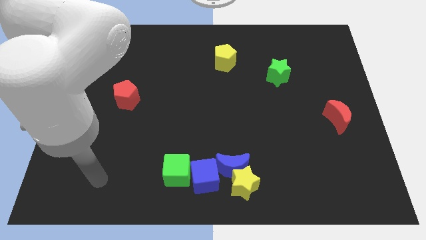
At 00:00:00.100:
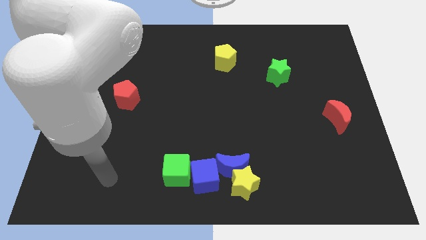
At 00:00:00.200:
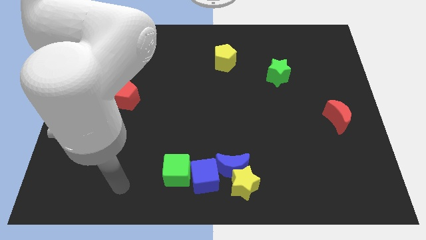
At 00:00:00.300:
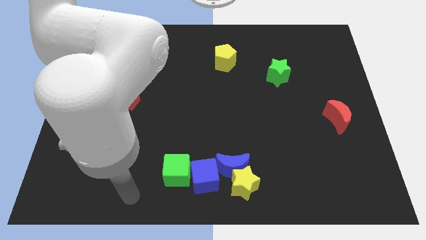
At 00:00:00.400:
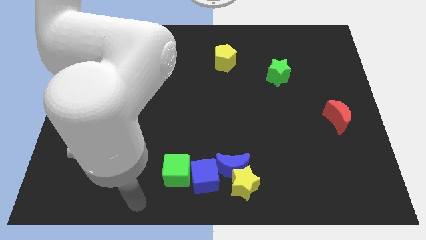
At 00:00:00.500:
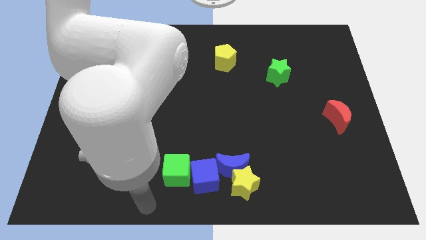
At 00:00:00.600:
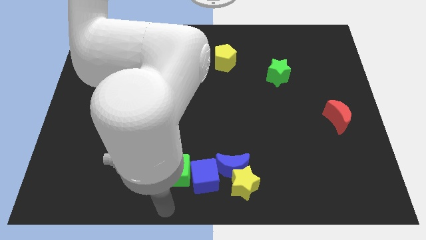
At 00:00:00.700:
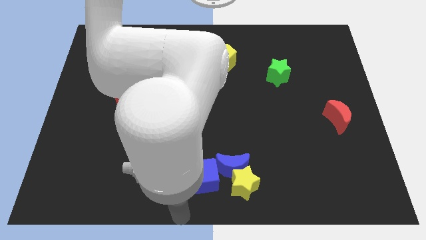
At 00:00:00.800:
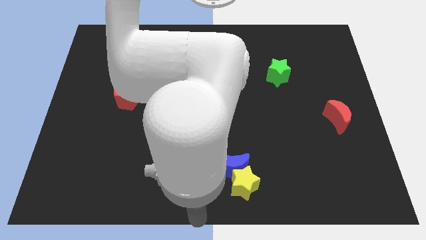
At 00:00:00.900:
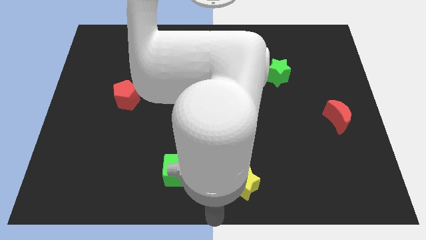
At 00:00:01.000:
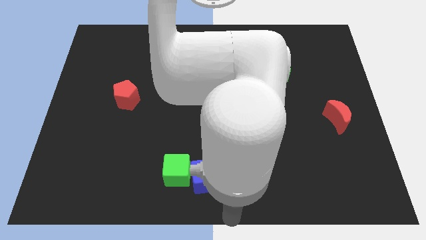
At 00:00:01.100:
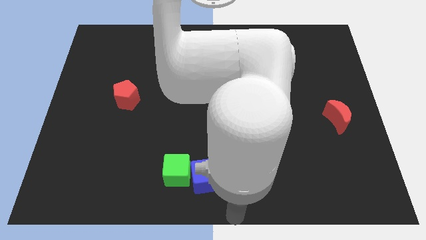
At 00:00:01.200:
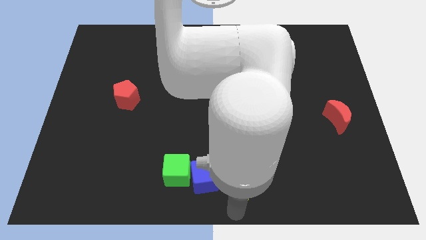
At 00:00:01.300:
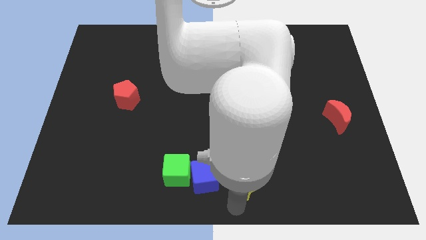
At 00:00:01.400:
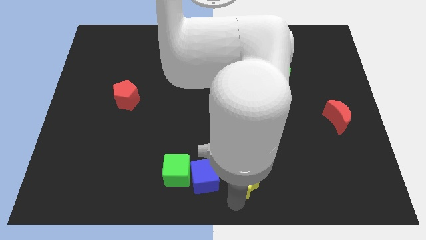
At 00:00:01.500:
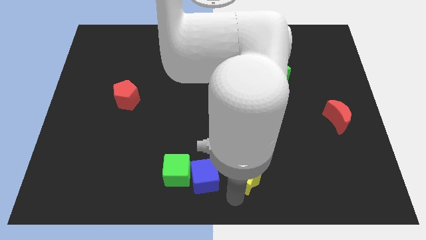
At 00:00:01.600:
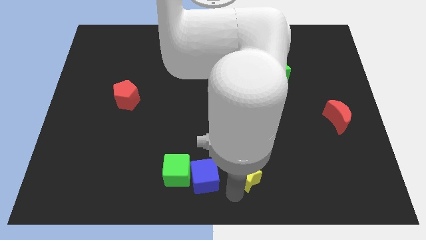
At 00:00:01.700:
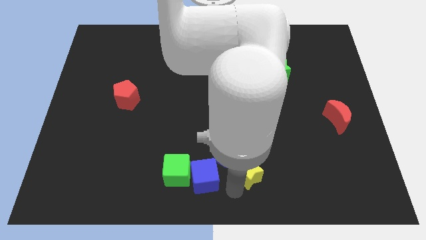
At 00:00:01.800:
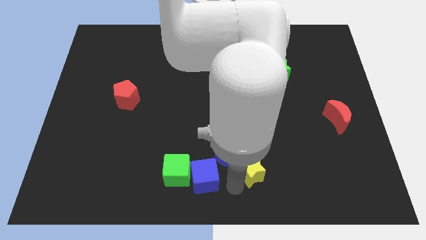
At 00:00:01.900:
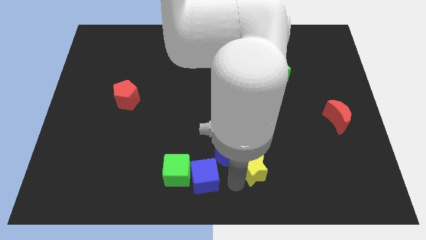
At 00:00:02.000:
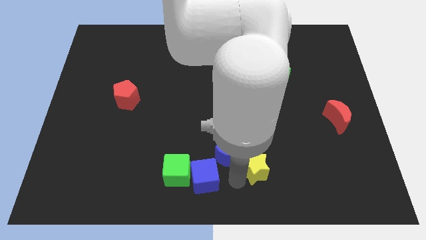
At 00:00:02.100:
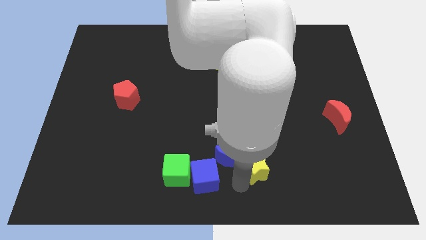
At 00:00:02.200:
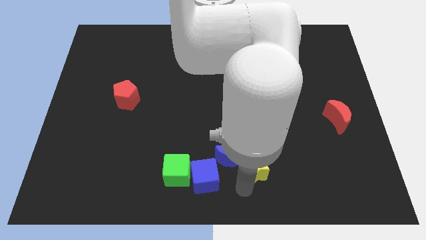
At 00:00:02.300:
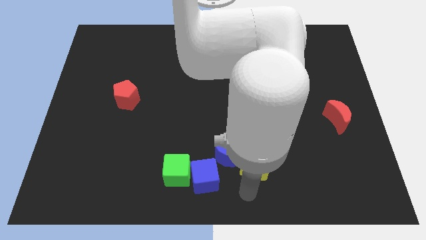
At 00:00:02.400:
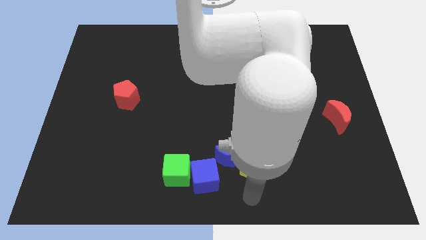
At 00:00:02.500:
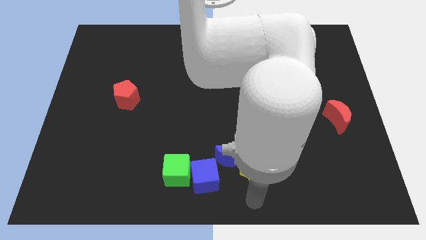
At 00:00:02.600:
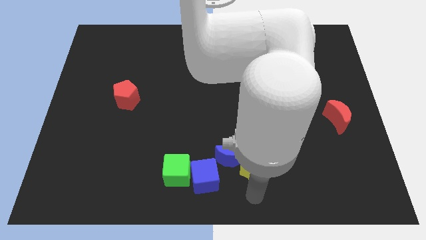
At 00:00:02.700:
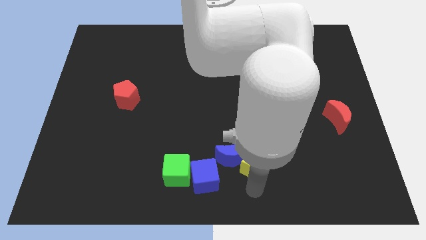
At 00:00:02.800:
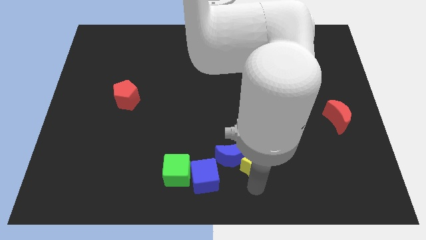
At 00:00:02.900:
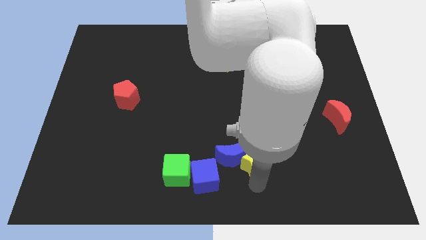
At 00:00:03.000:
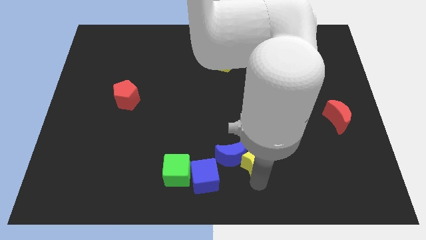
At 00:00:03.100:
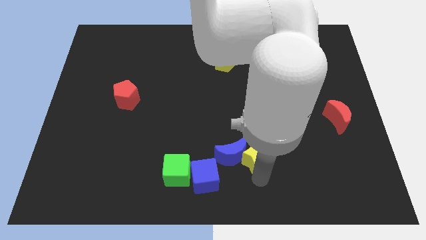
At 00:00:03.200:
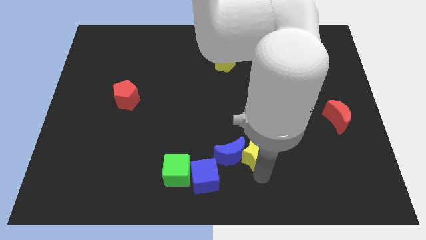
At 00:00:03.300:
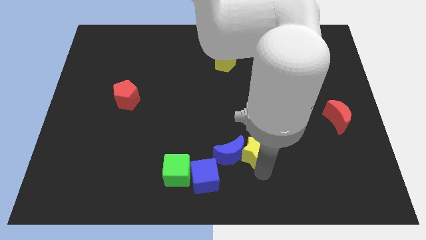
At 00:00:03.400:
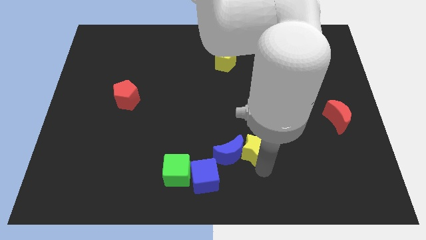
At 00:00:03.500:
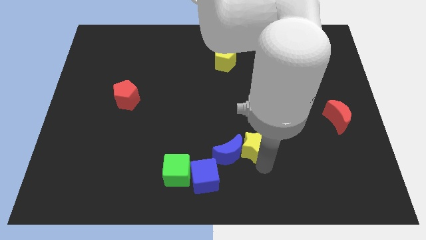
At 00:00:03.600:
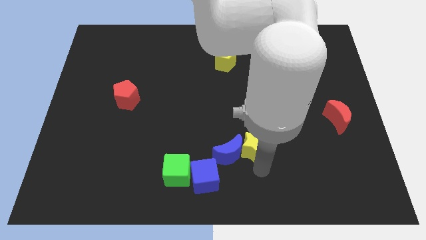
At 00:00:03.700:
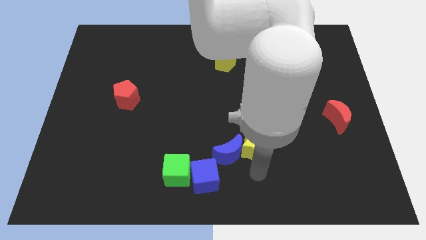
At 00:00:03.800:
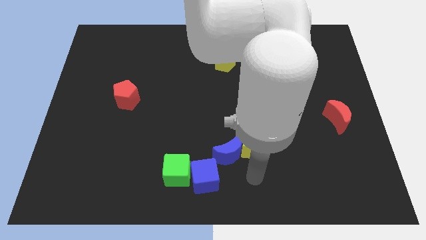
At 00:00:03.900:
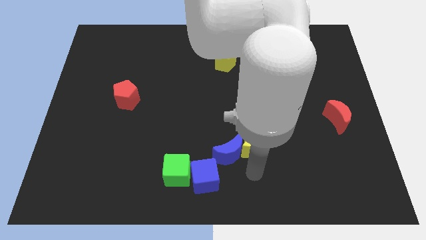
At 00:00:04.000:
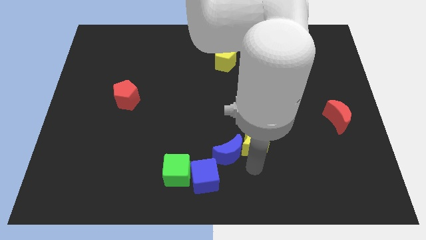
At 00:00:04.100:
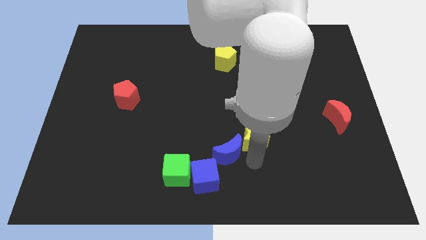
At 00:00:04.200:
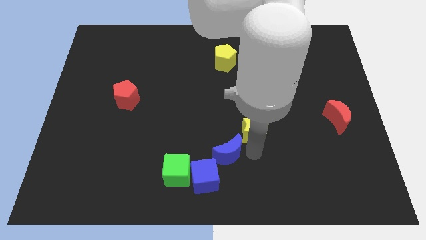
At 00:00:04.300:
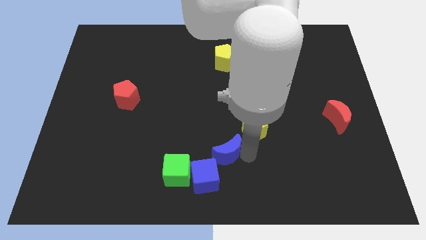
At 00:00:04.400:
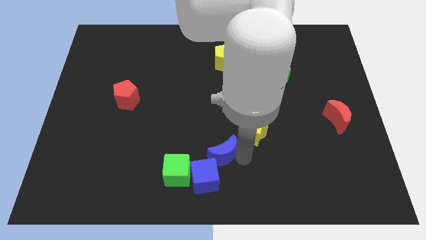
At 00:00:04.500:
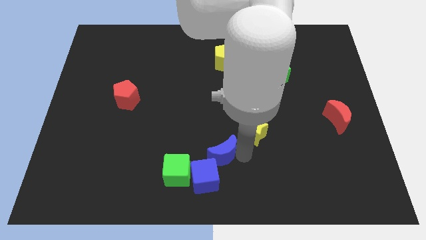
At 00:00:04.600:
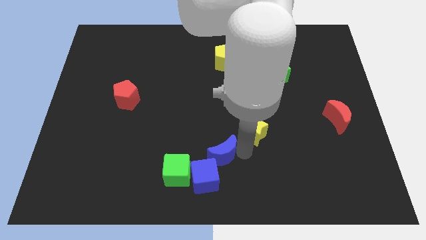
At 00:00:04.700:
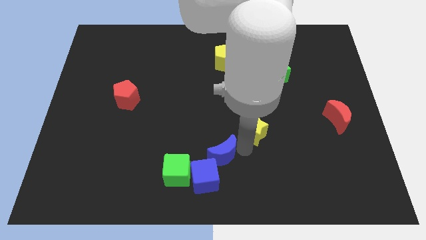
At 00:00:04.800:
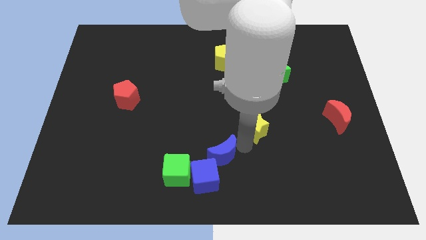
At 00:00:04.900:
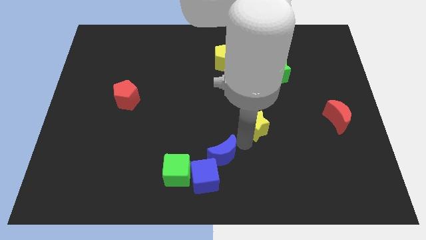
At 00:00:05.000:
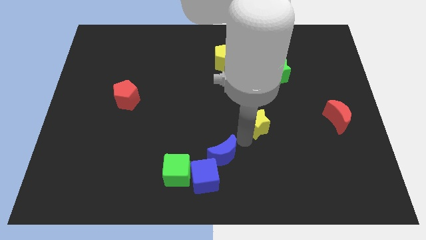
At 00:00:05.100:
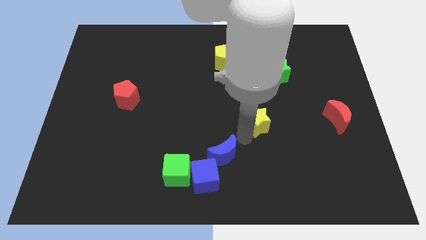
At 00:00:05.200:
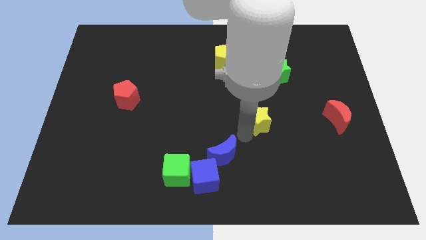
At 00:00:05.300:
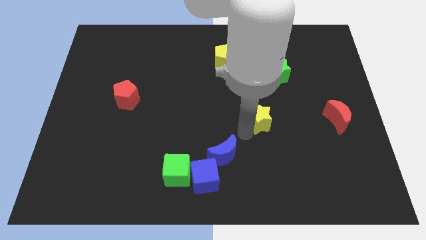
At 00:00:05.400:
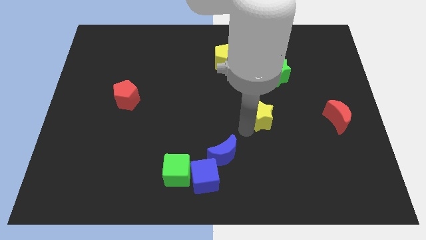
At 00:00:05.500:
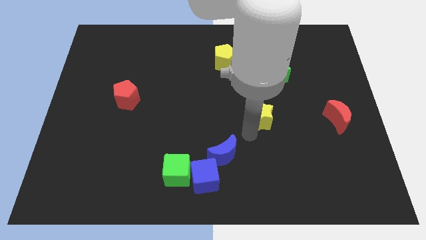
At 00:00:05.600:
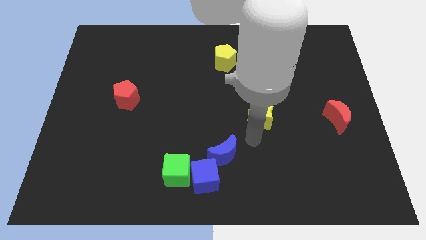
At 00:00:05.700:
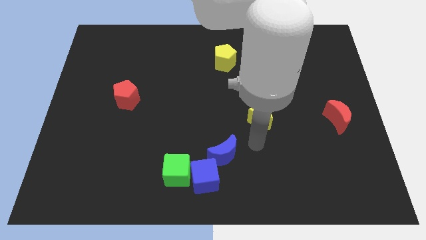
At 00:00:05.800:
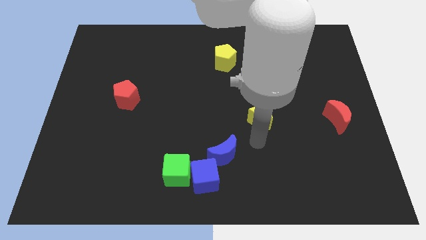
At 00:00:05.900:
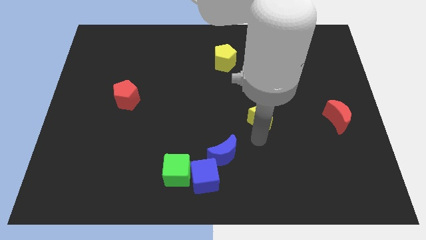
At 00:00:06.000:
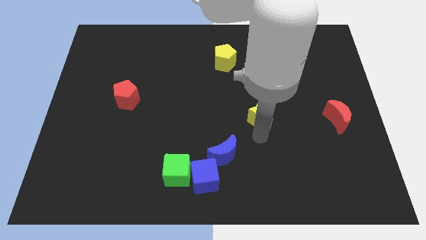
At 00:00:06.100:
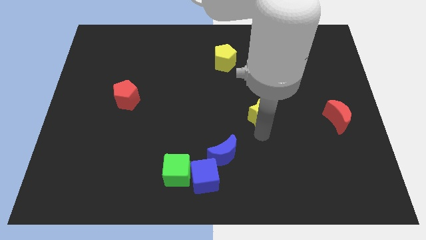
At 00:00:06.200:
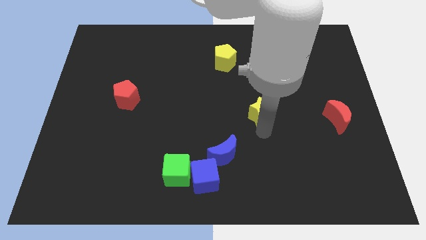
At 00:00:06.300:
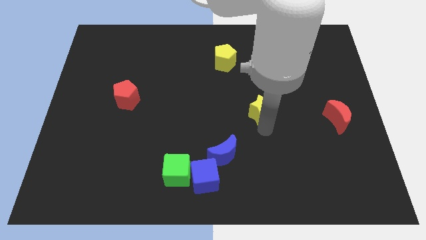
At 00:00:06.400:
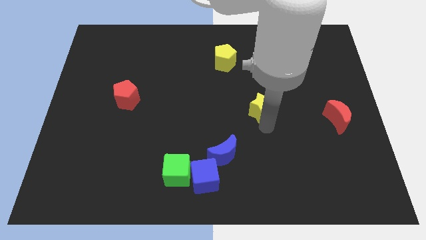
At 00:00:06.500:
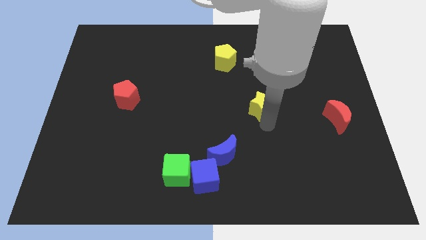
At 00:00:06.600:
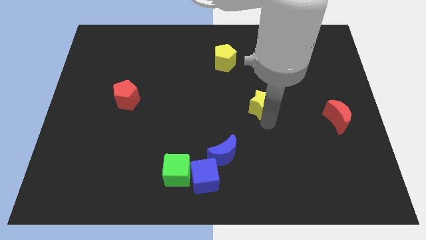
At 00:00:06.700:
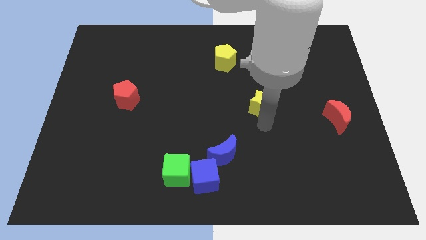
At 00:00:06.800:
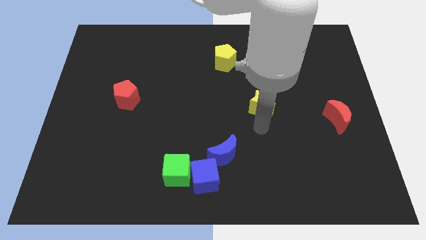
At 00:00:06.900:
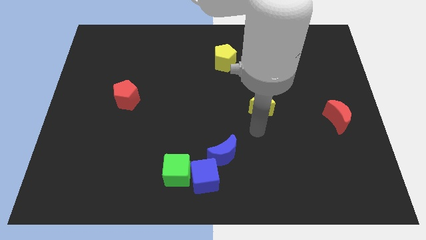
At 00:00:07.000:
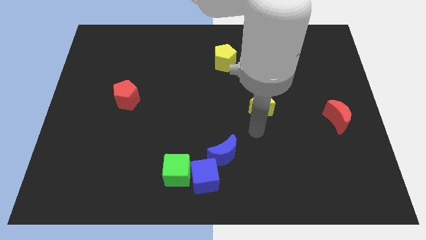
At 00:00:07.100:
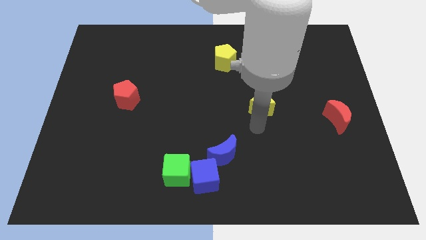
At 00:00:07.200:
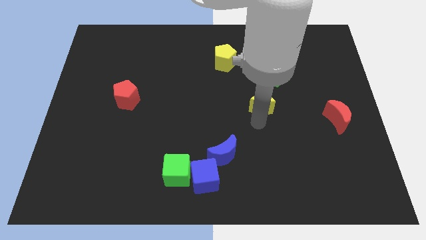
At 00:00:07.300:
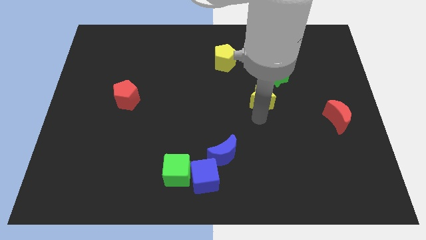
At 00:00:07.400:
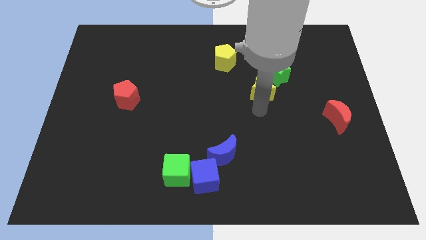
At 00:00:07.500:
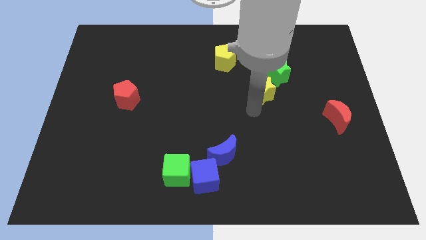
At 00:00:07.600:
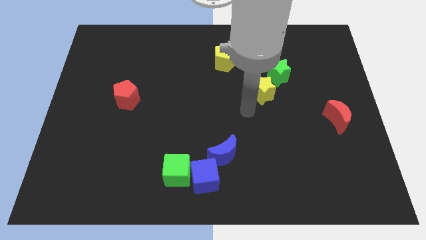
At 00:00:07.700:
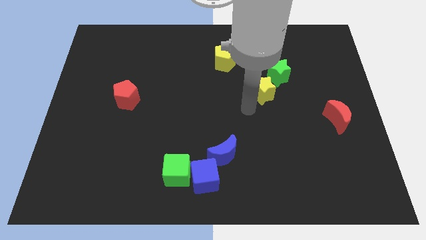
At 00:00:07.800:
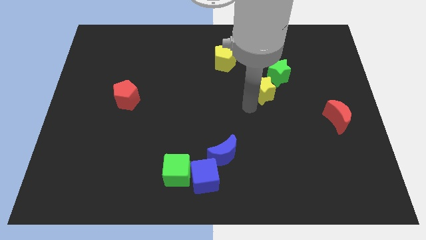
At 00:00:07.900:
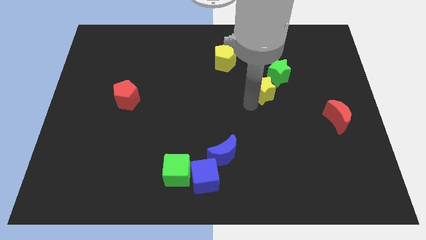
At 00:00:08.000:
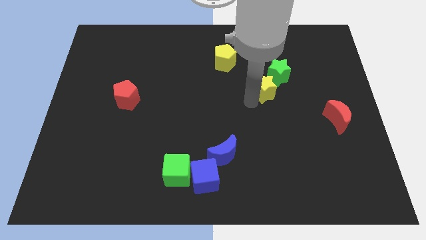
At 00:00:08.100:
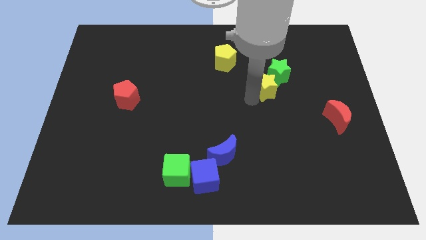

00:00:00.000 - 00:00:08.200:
put the yellow star to the green star
